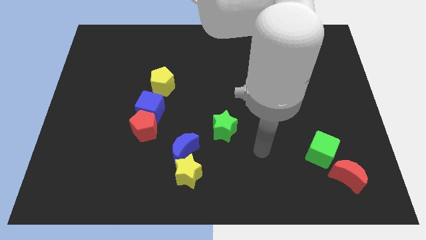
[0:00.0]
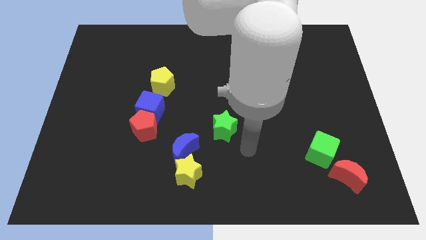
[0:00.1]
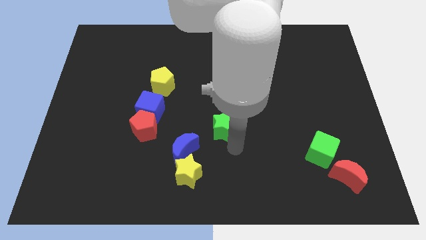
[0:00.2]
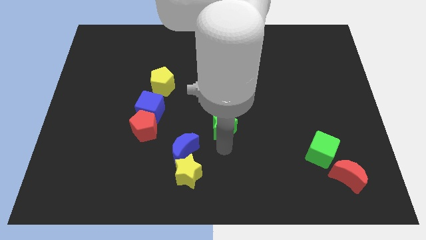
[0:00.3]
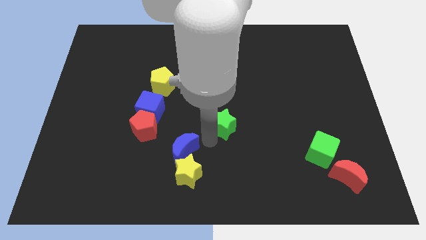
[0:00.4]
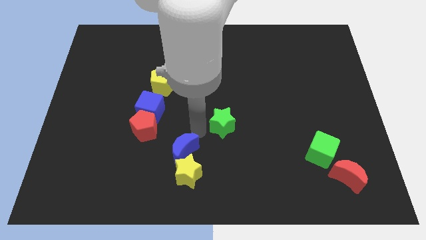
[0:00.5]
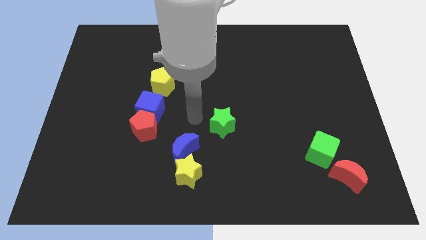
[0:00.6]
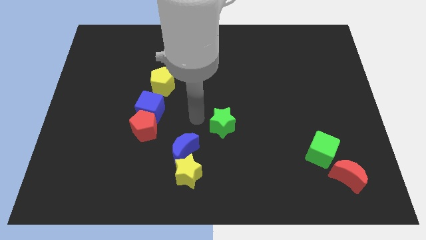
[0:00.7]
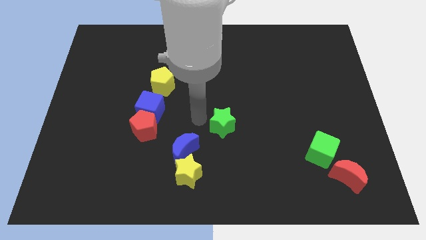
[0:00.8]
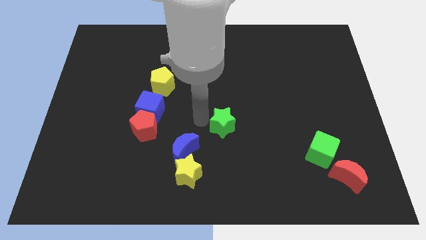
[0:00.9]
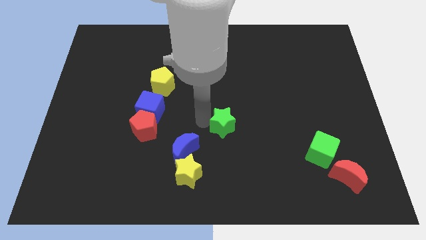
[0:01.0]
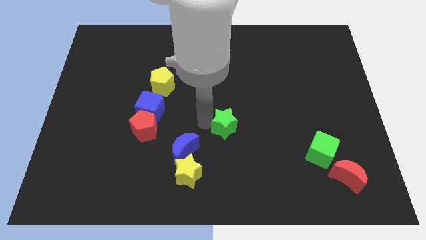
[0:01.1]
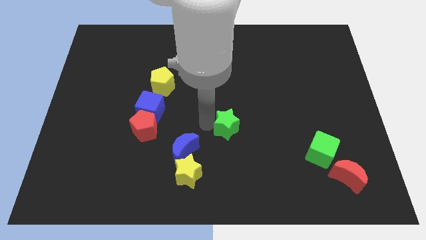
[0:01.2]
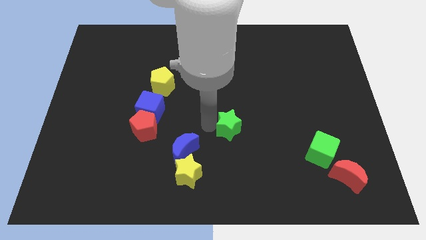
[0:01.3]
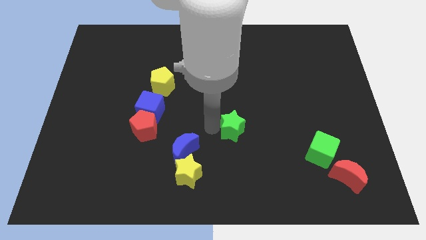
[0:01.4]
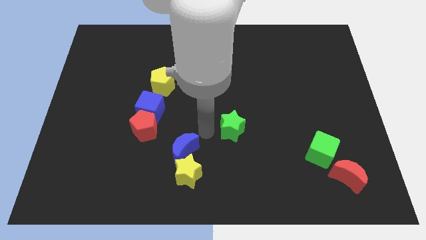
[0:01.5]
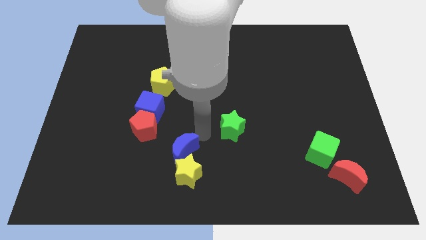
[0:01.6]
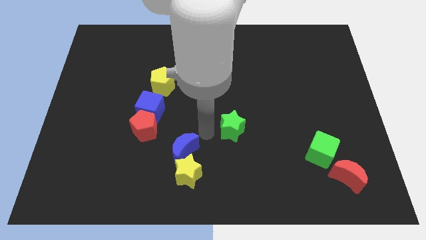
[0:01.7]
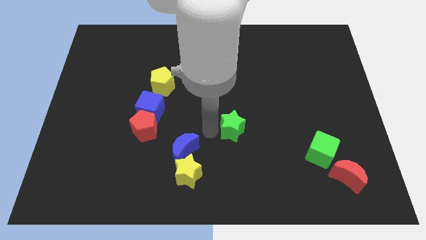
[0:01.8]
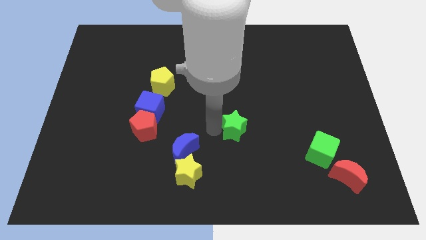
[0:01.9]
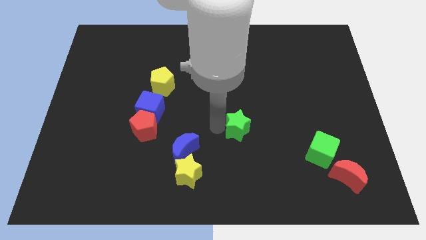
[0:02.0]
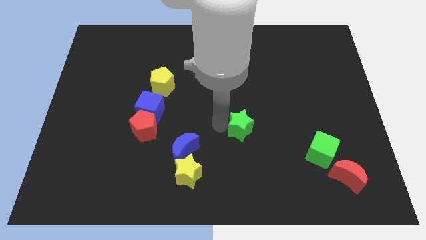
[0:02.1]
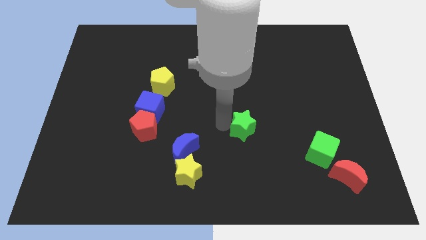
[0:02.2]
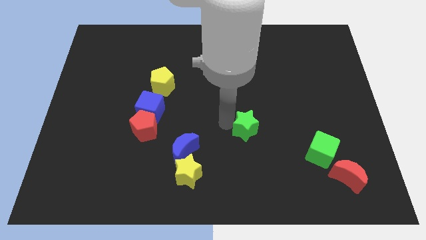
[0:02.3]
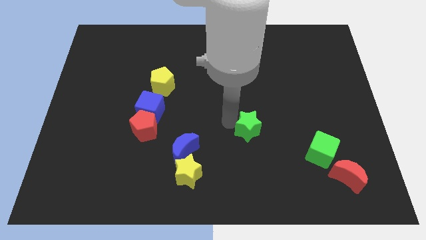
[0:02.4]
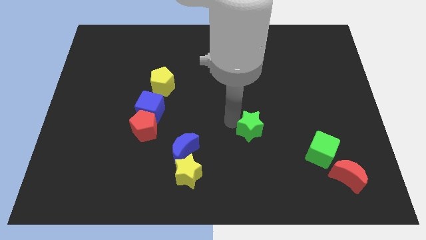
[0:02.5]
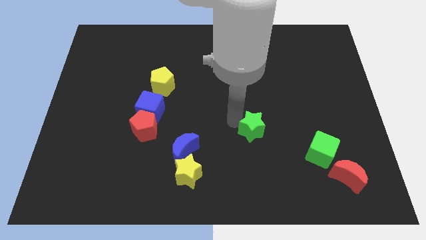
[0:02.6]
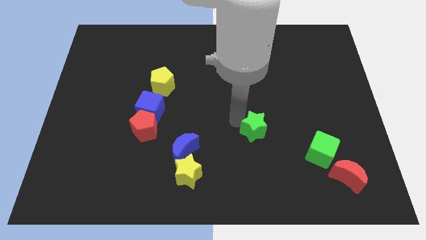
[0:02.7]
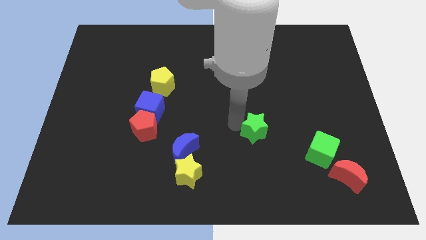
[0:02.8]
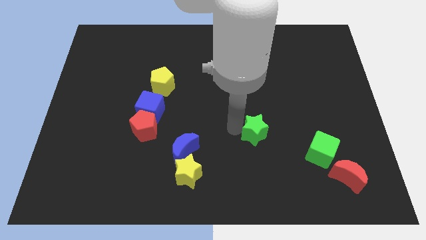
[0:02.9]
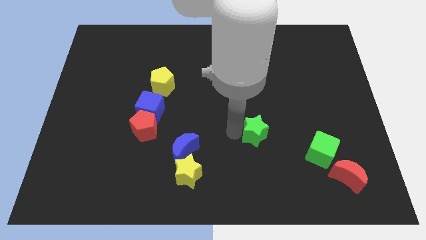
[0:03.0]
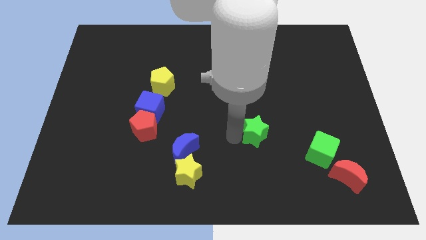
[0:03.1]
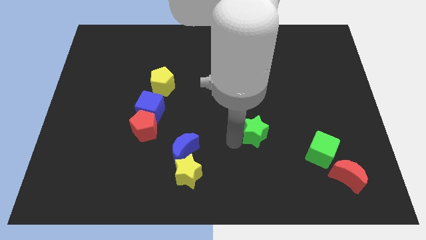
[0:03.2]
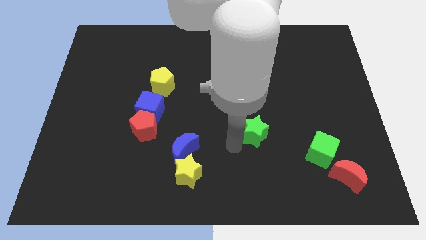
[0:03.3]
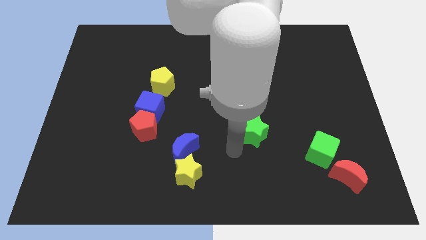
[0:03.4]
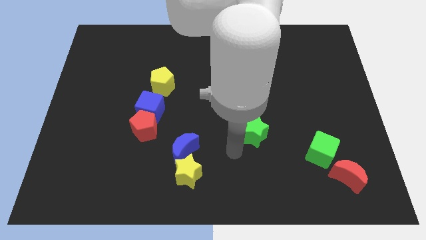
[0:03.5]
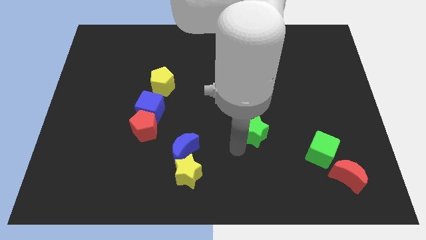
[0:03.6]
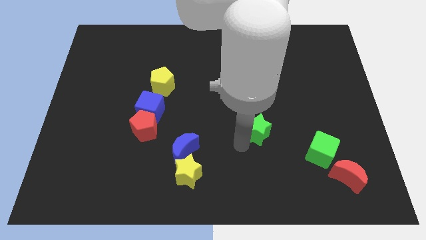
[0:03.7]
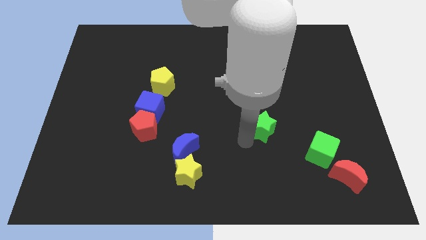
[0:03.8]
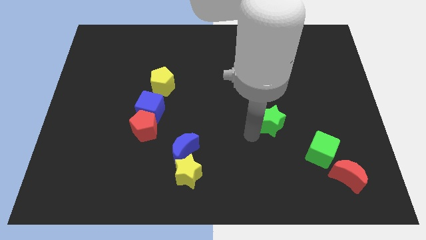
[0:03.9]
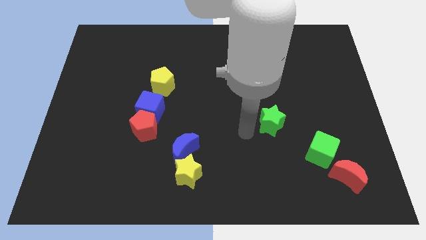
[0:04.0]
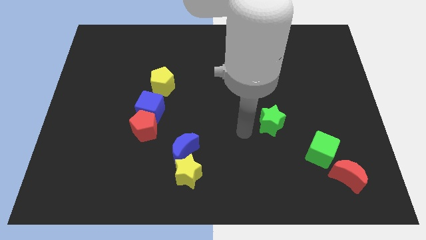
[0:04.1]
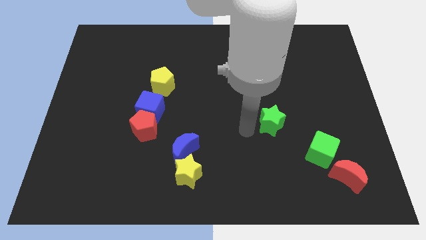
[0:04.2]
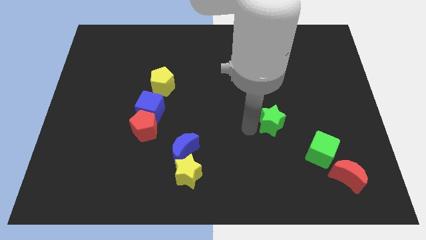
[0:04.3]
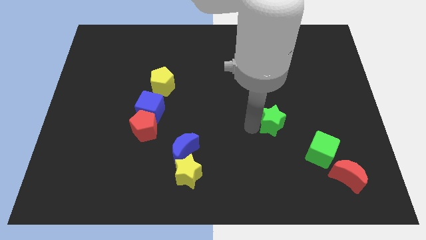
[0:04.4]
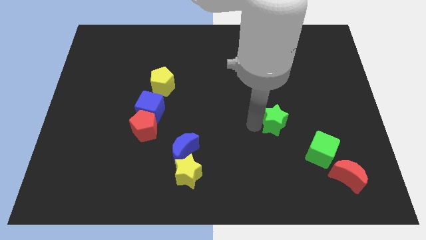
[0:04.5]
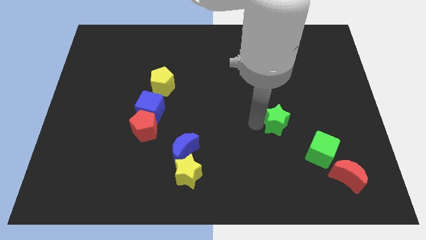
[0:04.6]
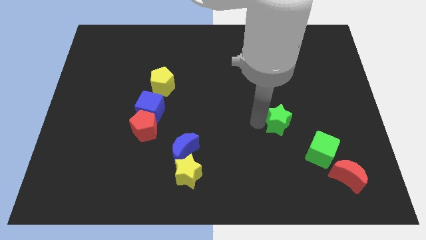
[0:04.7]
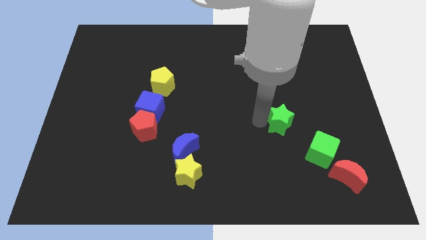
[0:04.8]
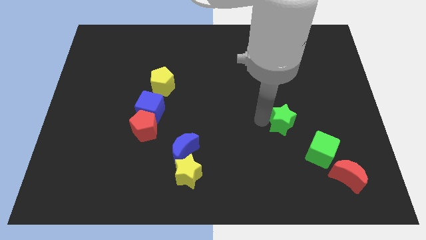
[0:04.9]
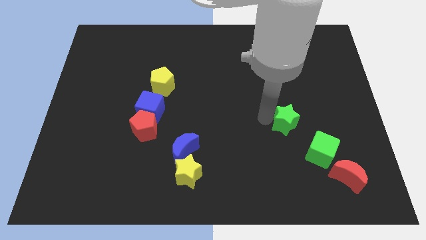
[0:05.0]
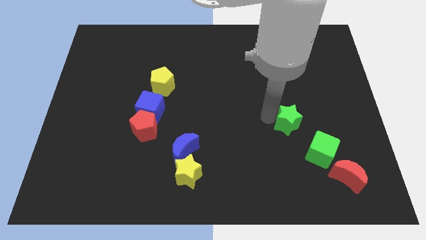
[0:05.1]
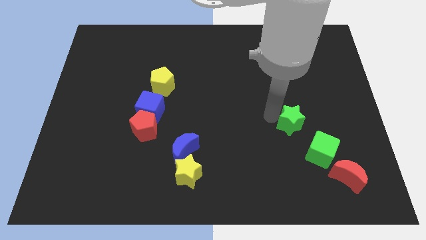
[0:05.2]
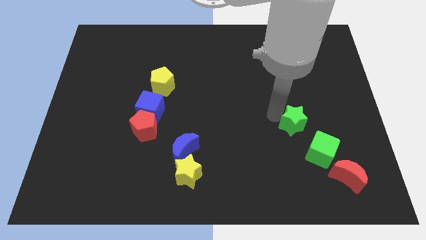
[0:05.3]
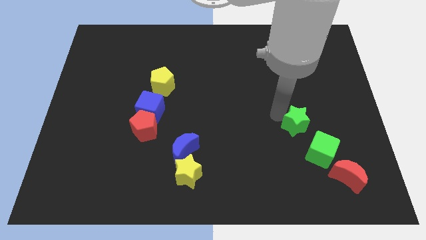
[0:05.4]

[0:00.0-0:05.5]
push the green star above the green cube

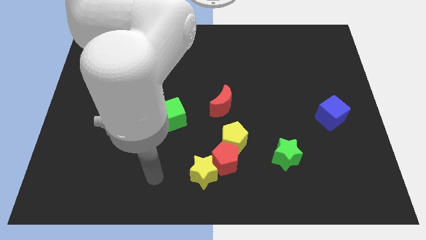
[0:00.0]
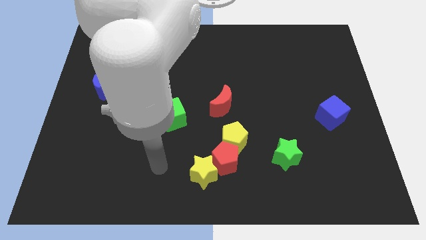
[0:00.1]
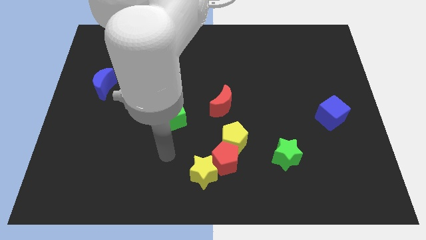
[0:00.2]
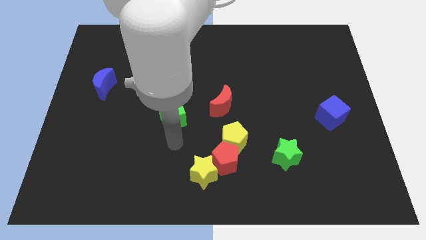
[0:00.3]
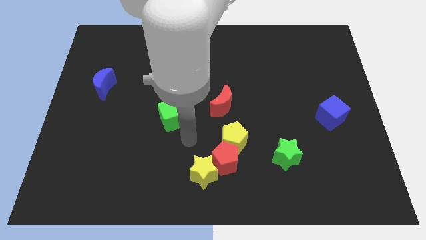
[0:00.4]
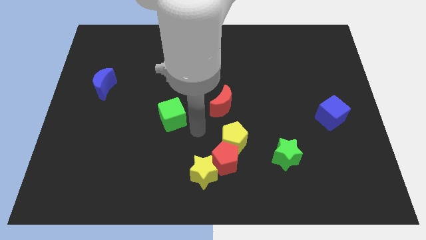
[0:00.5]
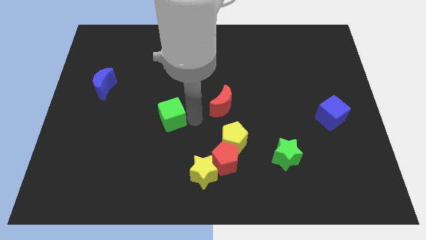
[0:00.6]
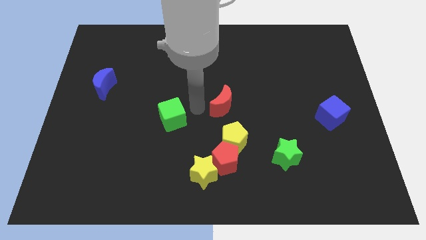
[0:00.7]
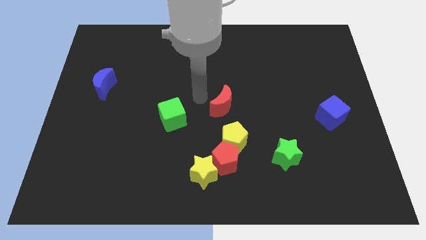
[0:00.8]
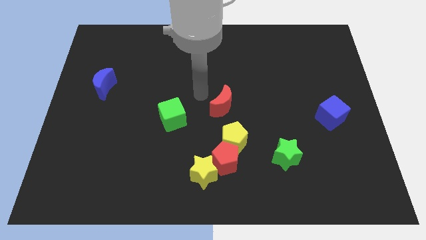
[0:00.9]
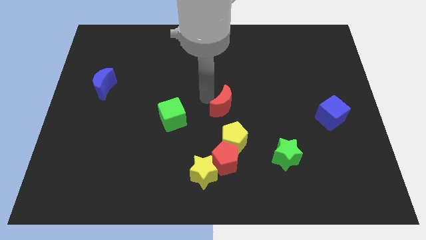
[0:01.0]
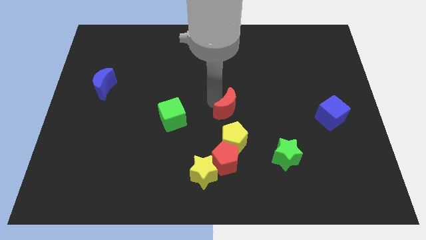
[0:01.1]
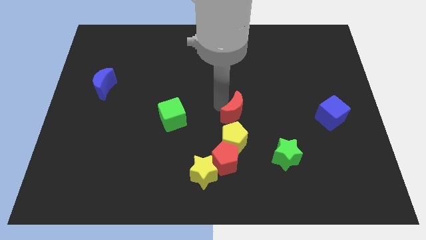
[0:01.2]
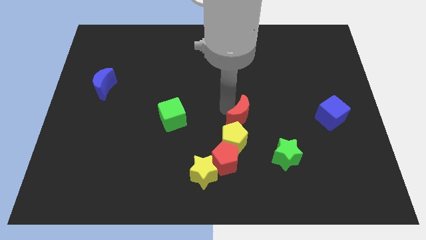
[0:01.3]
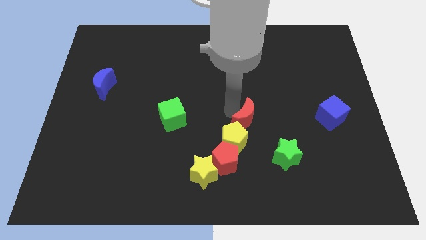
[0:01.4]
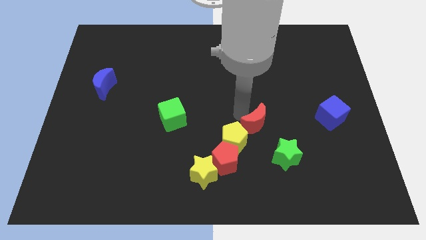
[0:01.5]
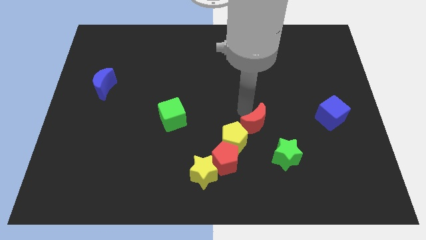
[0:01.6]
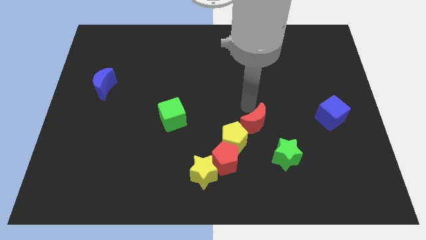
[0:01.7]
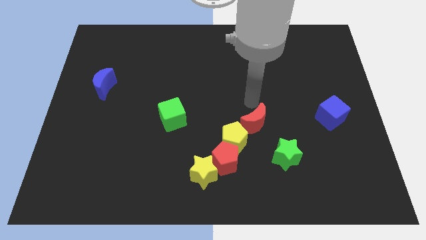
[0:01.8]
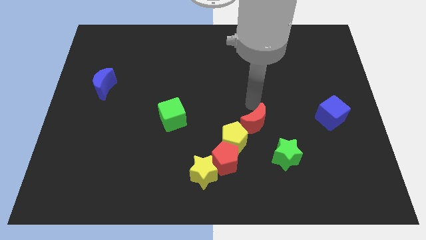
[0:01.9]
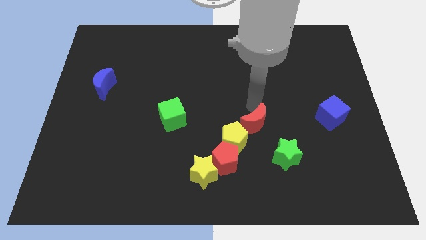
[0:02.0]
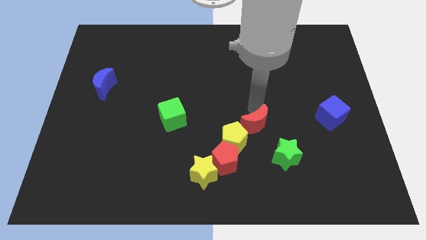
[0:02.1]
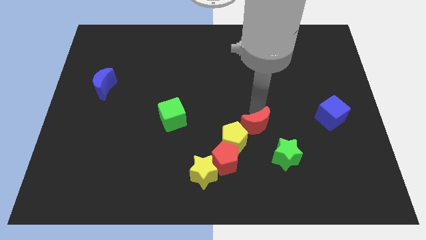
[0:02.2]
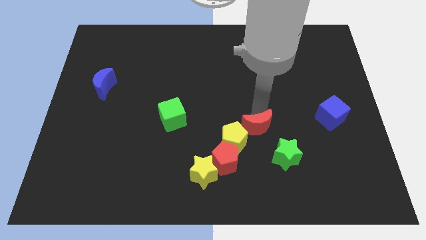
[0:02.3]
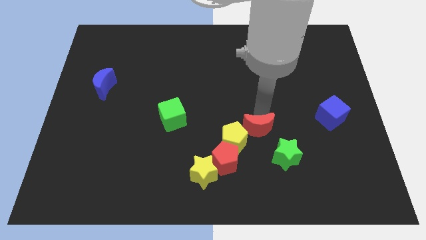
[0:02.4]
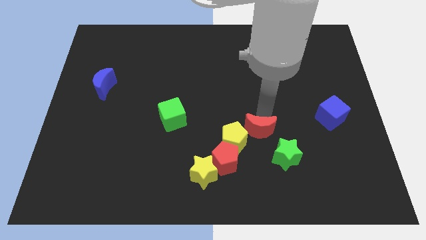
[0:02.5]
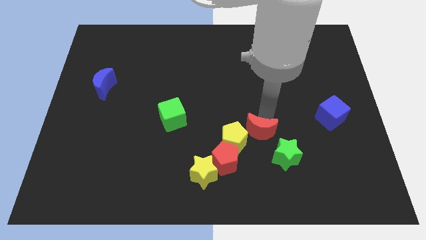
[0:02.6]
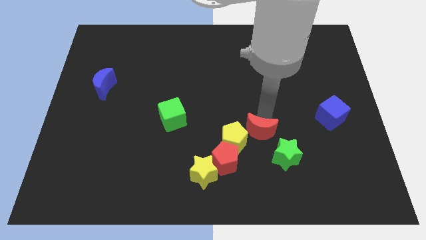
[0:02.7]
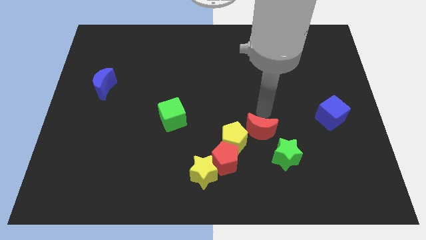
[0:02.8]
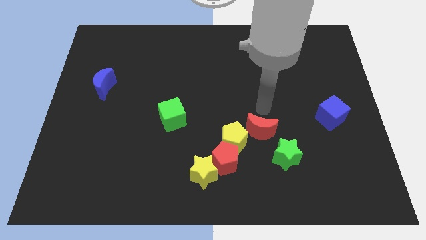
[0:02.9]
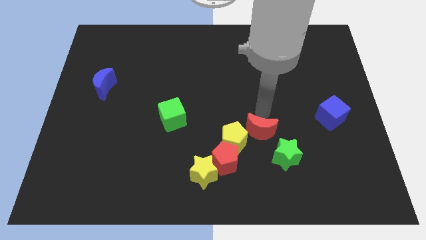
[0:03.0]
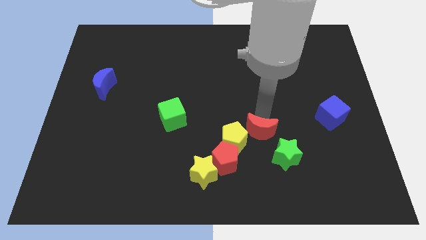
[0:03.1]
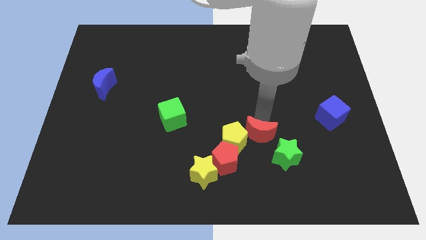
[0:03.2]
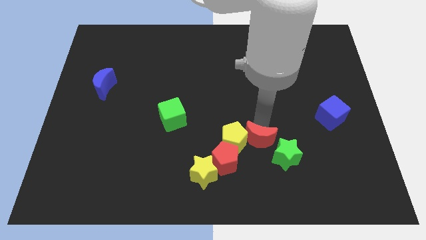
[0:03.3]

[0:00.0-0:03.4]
move the red moon diagonally down and to the right of the yellow pentagon
